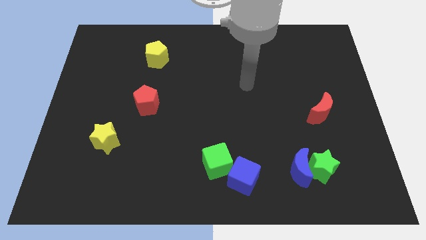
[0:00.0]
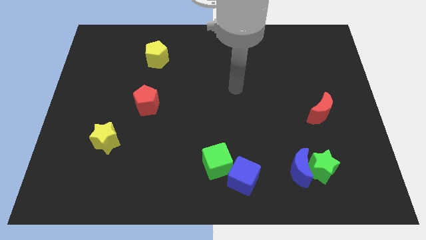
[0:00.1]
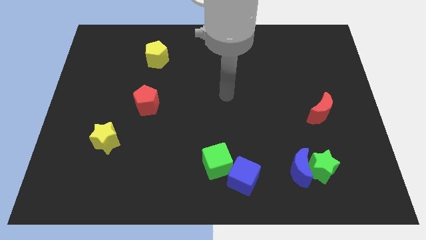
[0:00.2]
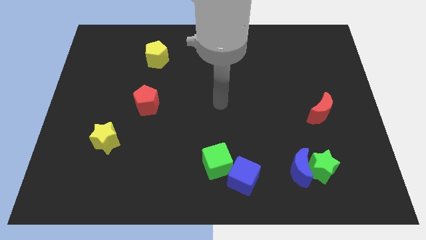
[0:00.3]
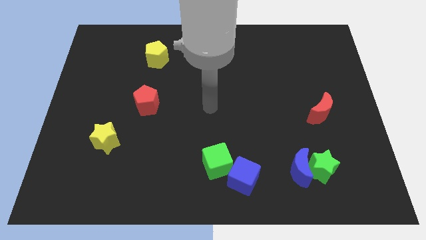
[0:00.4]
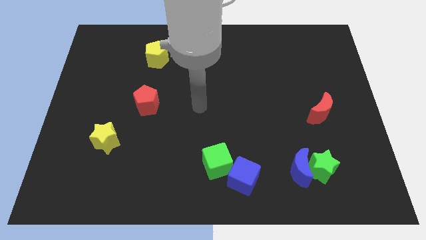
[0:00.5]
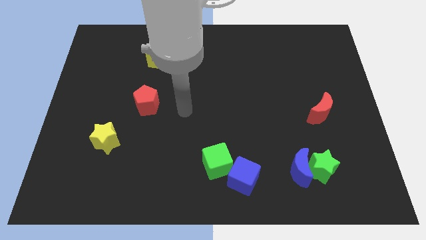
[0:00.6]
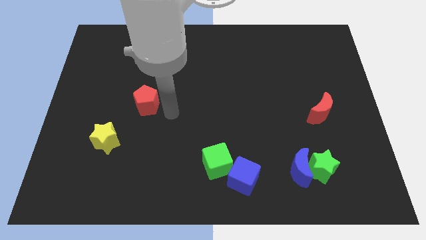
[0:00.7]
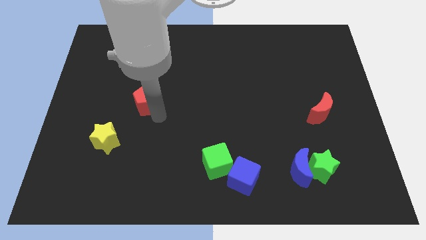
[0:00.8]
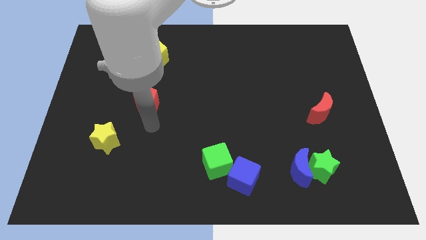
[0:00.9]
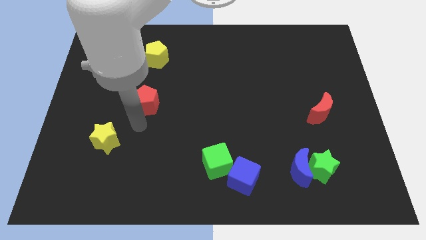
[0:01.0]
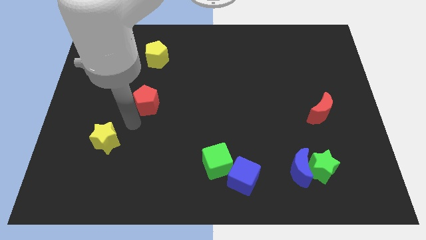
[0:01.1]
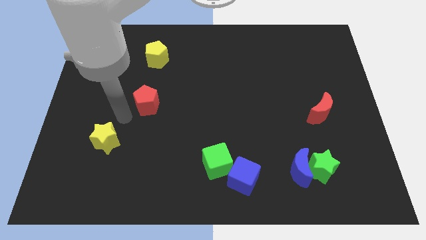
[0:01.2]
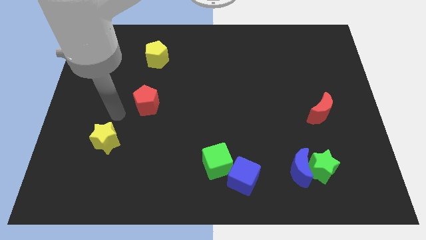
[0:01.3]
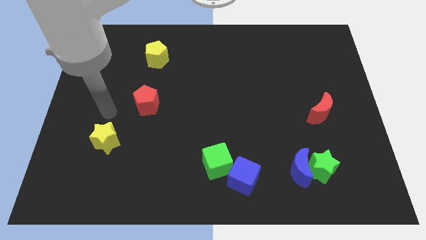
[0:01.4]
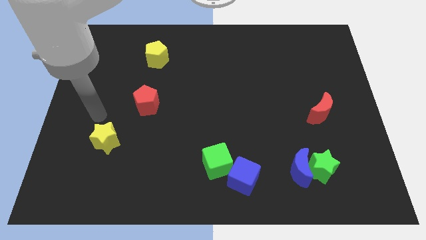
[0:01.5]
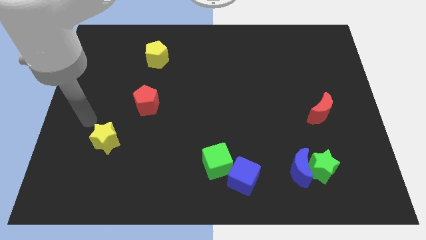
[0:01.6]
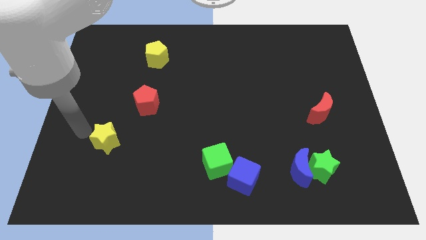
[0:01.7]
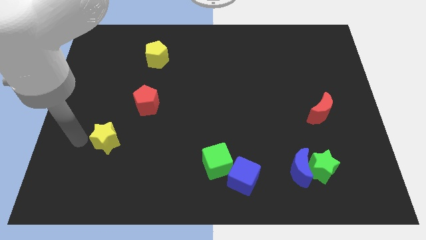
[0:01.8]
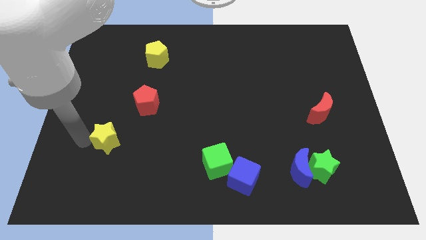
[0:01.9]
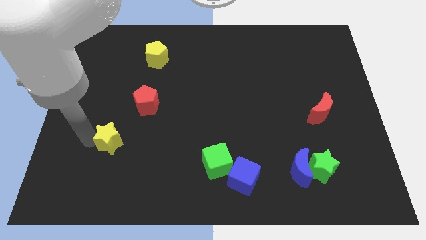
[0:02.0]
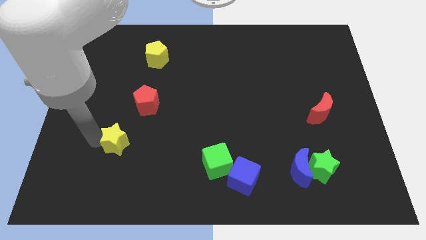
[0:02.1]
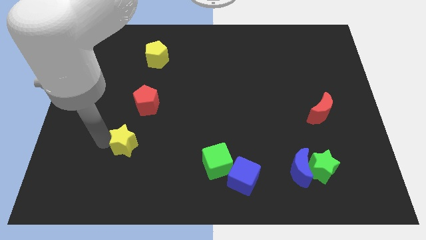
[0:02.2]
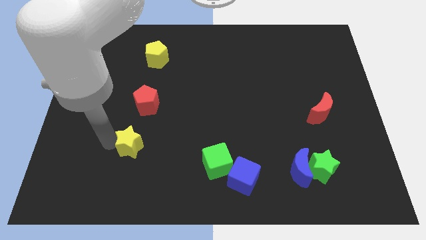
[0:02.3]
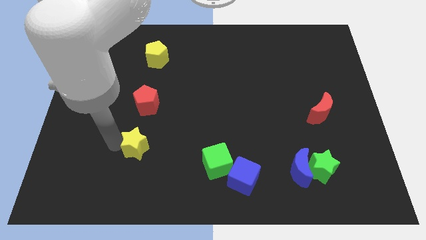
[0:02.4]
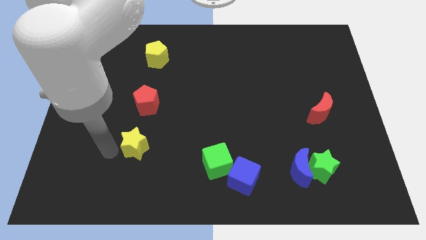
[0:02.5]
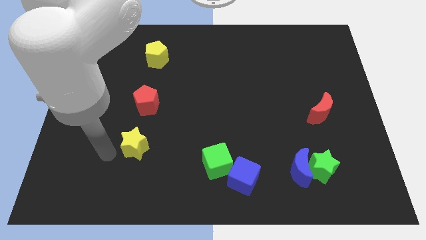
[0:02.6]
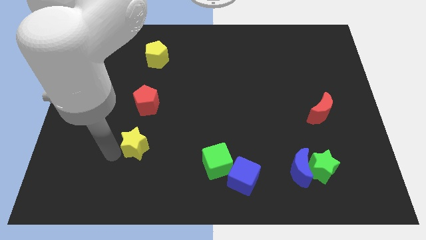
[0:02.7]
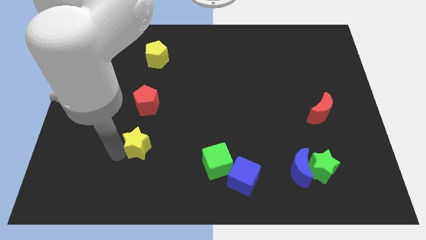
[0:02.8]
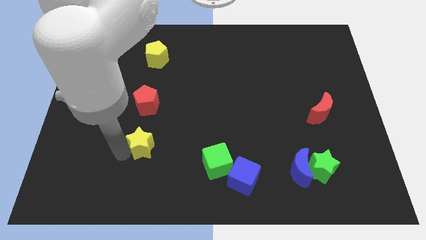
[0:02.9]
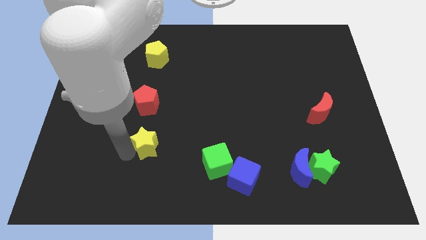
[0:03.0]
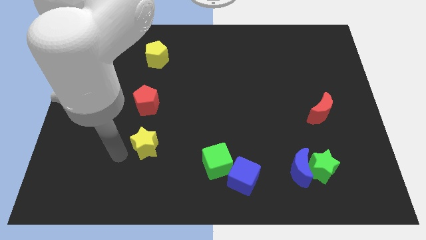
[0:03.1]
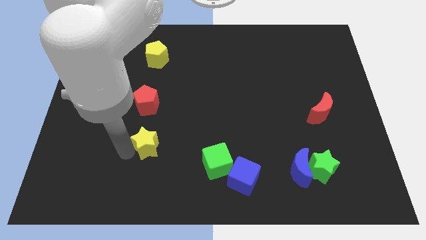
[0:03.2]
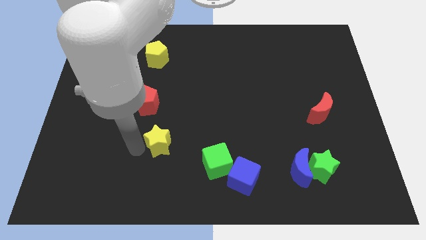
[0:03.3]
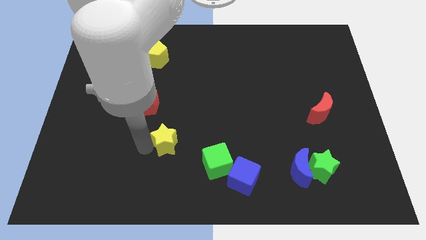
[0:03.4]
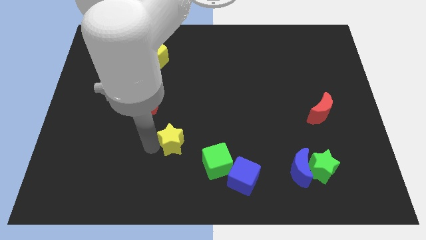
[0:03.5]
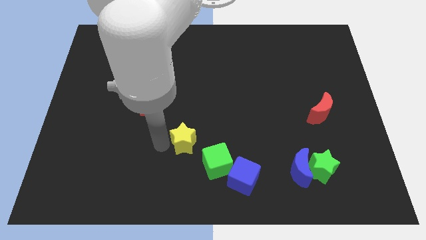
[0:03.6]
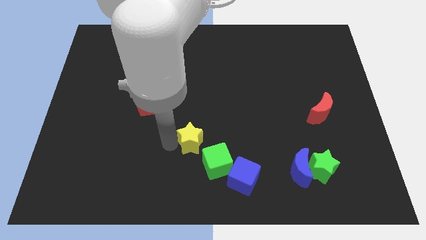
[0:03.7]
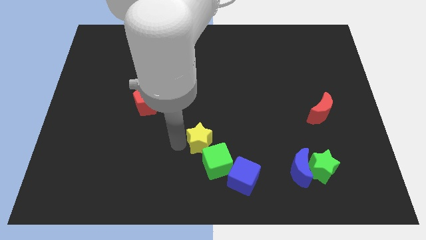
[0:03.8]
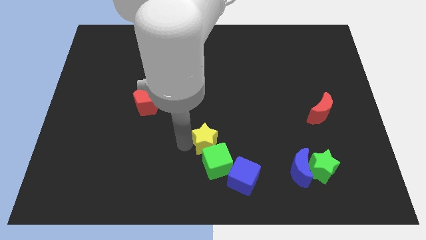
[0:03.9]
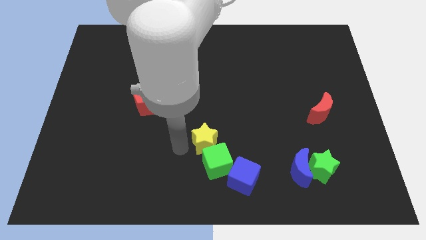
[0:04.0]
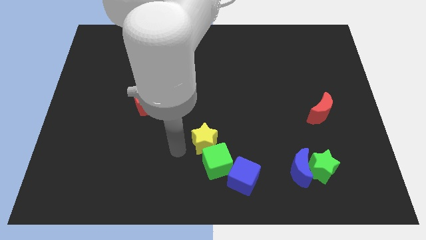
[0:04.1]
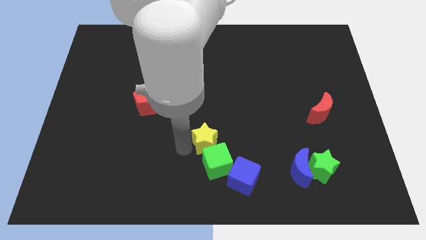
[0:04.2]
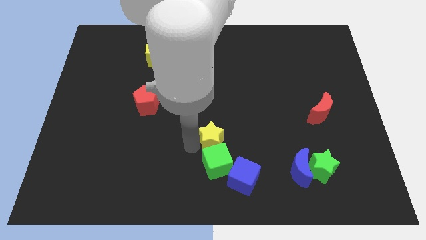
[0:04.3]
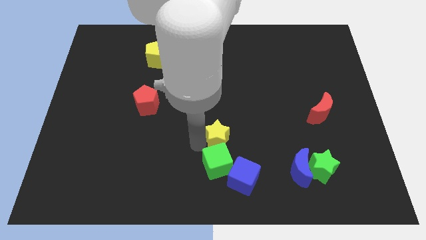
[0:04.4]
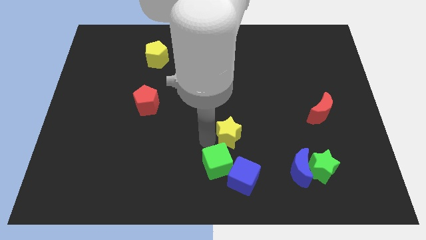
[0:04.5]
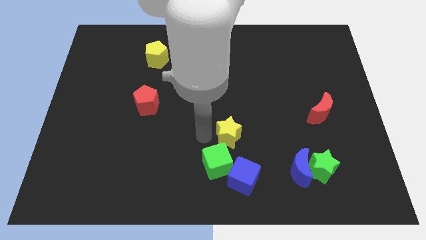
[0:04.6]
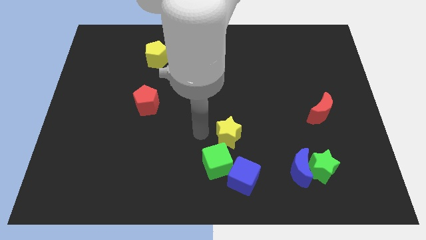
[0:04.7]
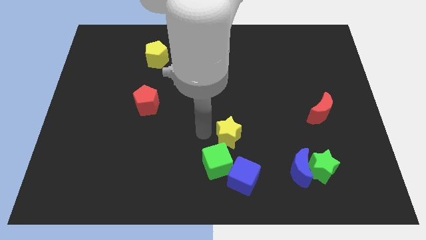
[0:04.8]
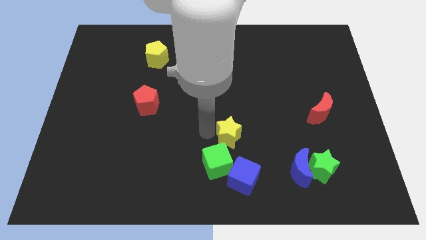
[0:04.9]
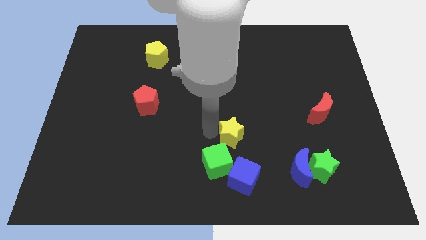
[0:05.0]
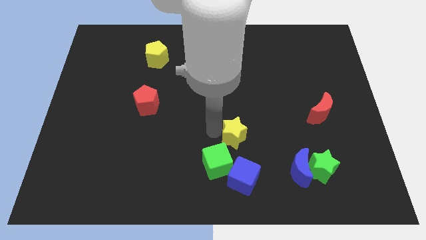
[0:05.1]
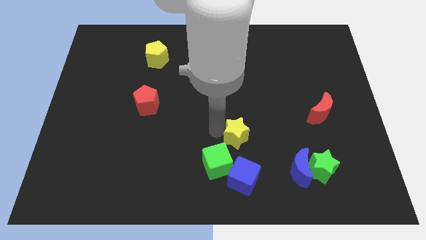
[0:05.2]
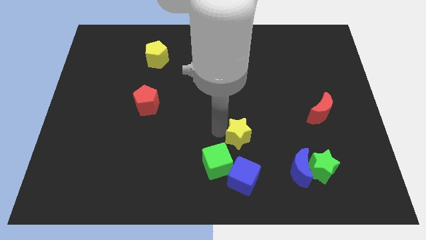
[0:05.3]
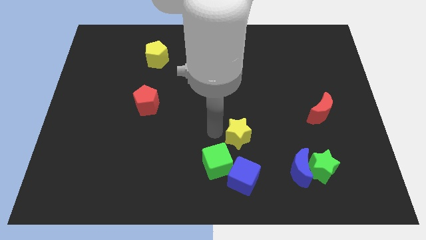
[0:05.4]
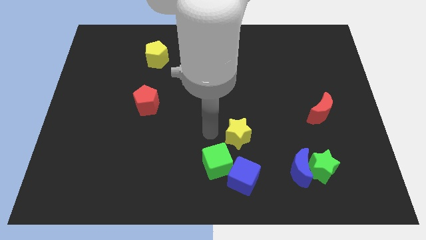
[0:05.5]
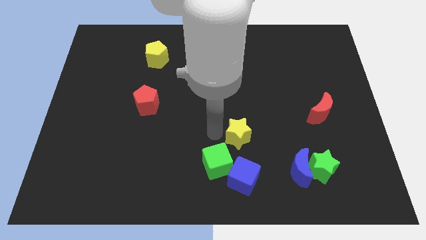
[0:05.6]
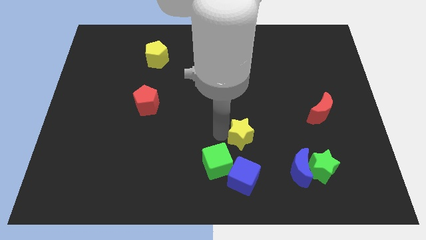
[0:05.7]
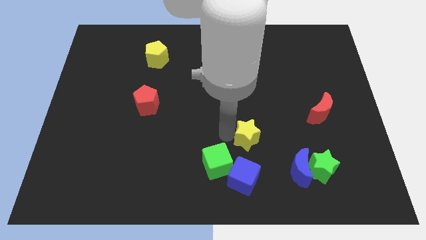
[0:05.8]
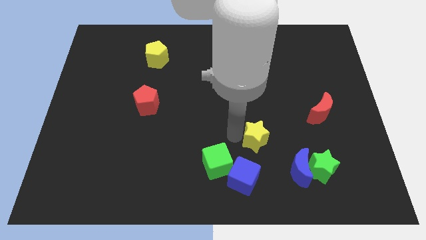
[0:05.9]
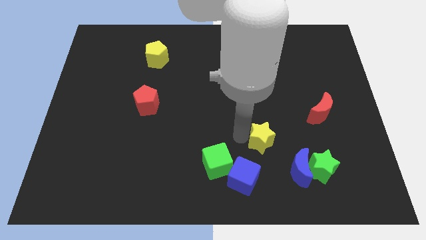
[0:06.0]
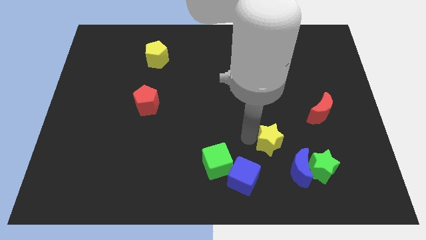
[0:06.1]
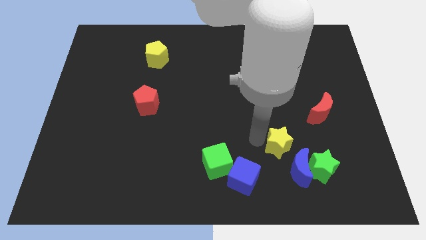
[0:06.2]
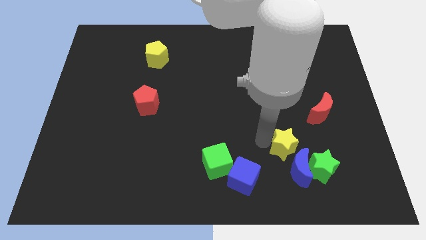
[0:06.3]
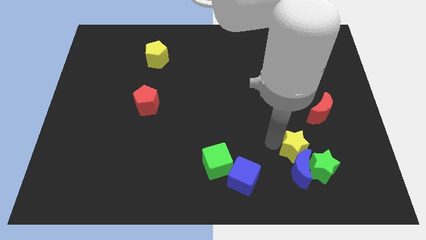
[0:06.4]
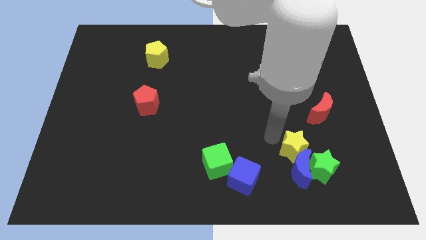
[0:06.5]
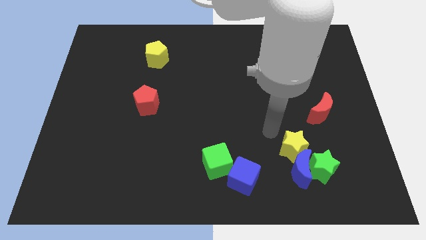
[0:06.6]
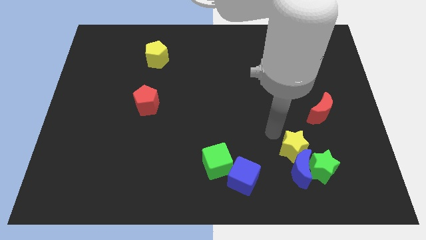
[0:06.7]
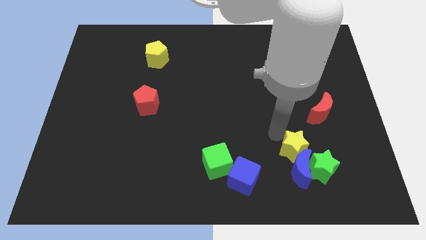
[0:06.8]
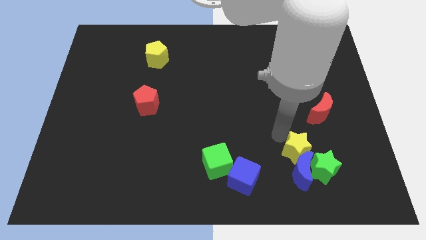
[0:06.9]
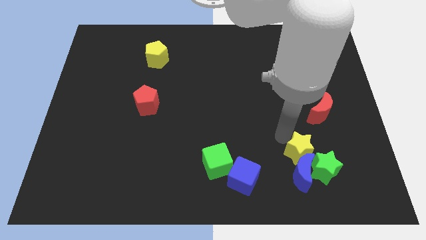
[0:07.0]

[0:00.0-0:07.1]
move the yellow star next to the green star
